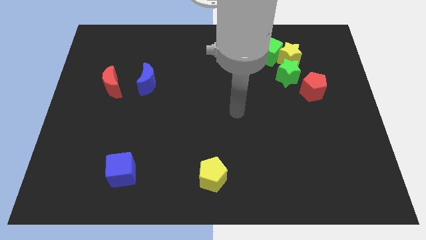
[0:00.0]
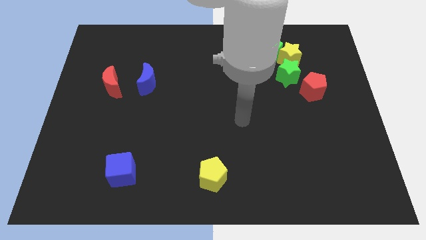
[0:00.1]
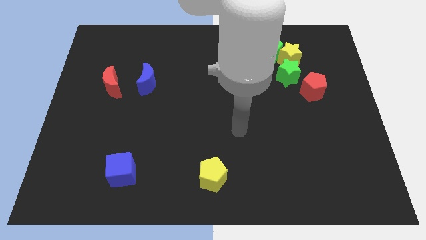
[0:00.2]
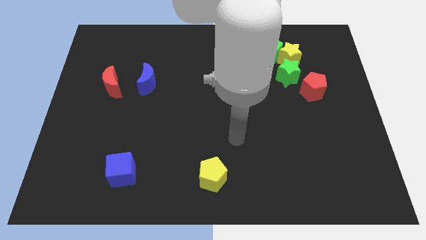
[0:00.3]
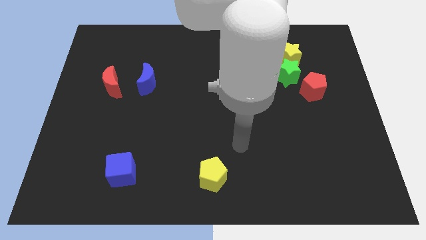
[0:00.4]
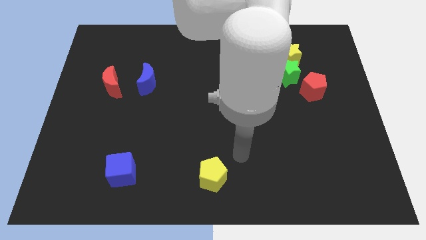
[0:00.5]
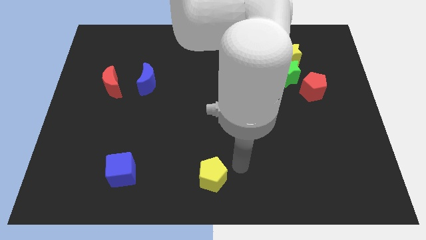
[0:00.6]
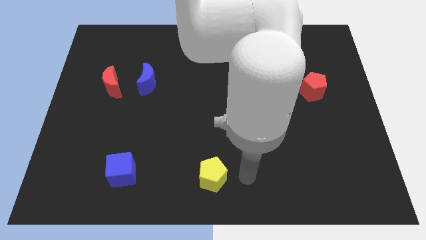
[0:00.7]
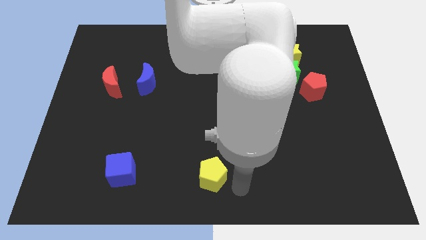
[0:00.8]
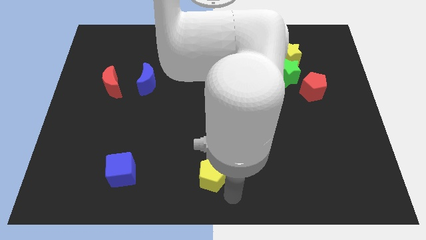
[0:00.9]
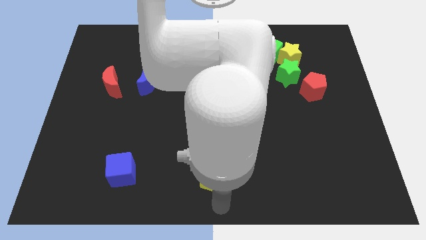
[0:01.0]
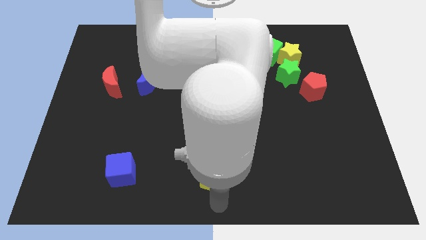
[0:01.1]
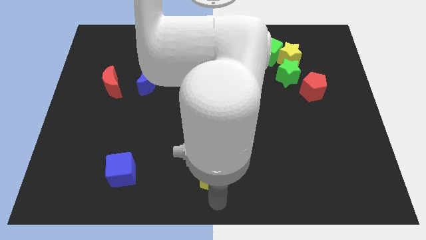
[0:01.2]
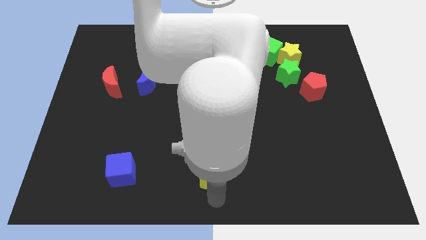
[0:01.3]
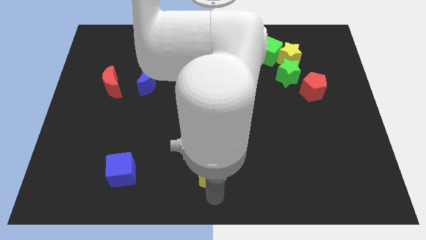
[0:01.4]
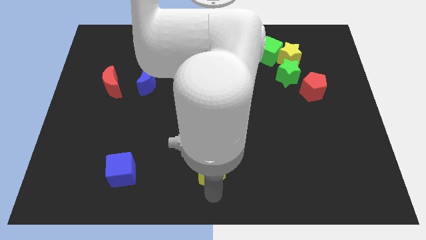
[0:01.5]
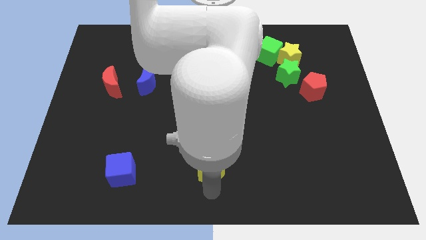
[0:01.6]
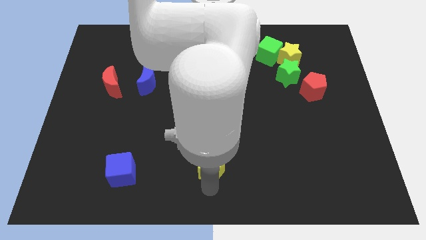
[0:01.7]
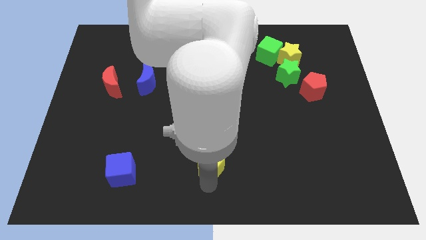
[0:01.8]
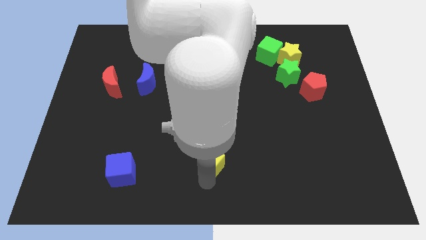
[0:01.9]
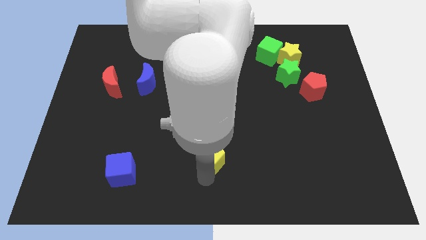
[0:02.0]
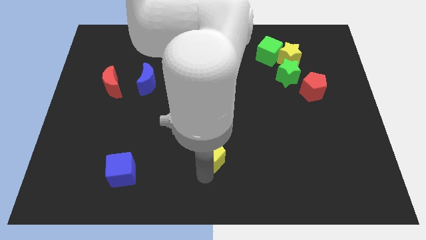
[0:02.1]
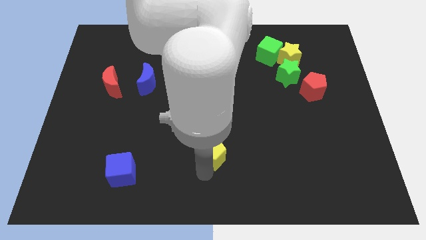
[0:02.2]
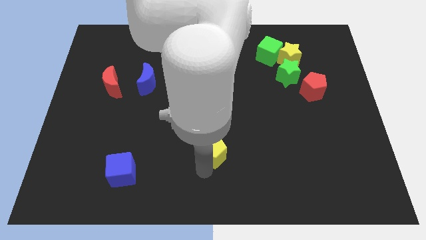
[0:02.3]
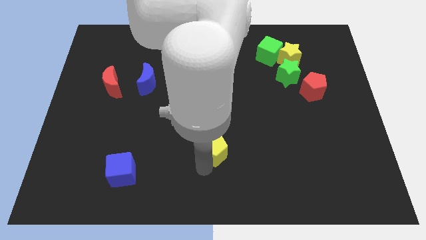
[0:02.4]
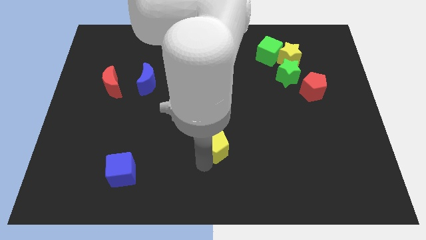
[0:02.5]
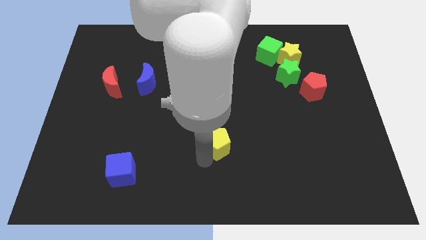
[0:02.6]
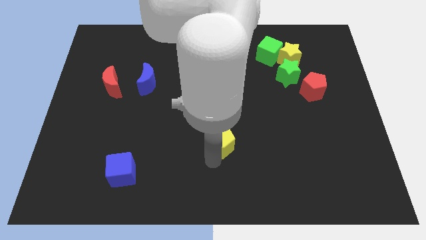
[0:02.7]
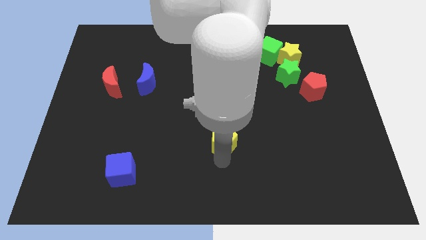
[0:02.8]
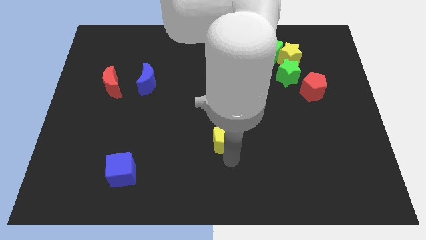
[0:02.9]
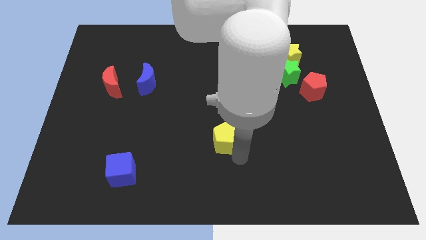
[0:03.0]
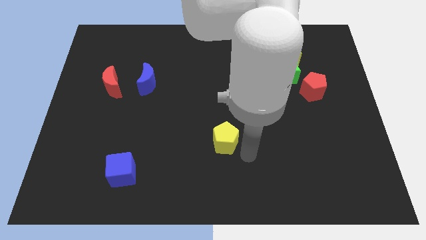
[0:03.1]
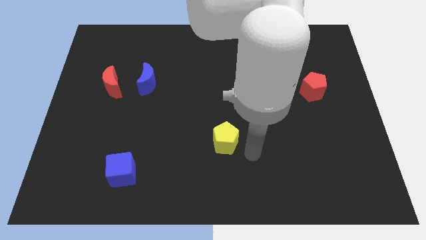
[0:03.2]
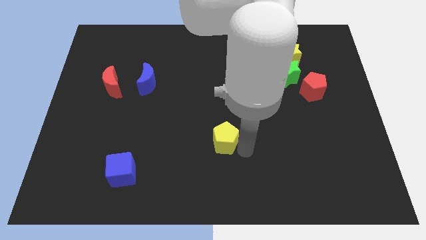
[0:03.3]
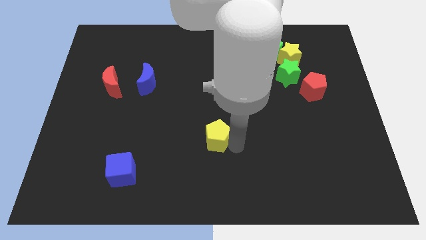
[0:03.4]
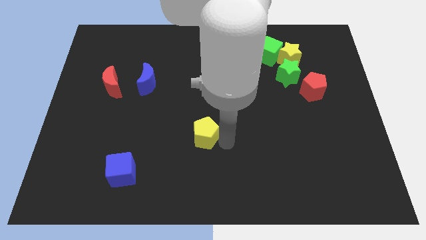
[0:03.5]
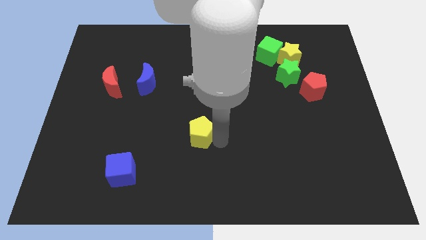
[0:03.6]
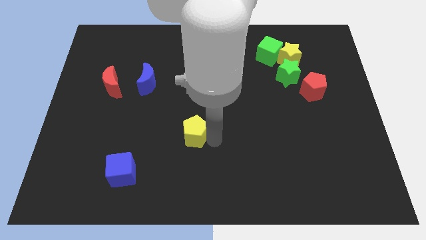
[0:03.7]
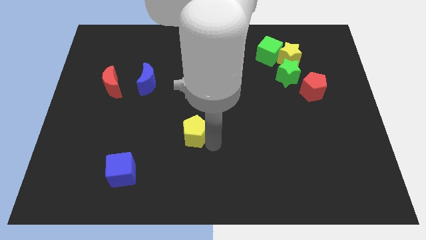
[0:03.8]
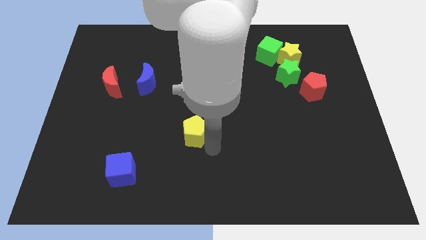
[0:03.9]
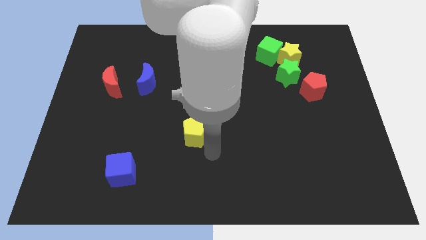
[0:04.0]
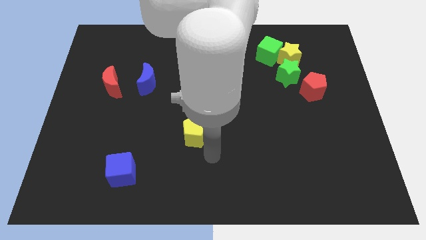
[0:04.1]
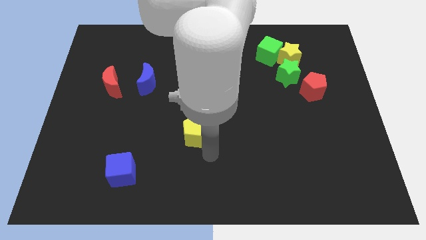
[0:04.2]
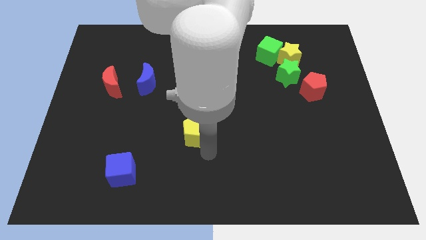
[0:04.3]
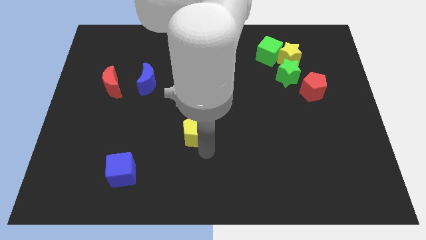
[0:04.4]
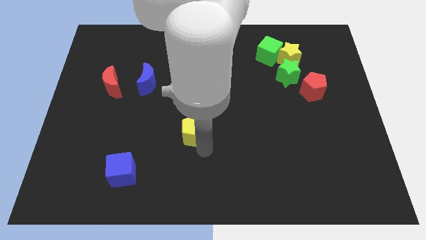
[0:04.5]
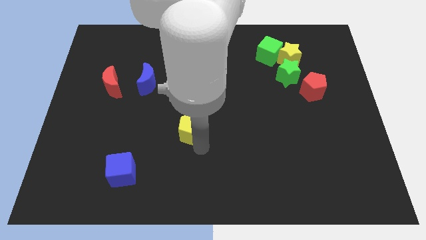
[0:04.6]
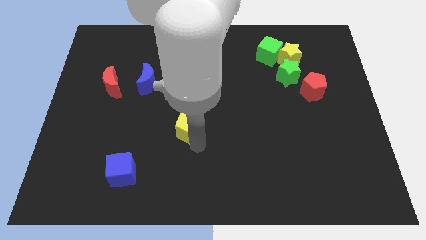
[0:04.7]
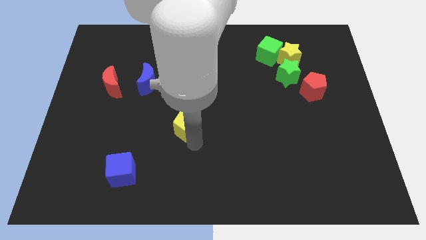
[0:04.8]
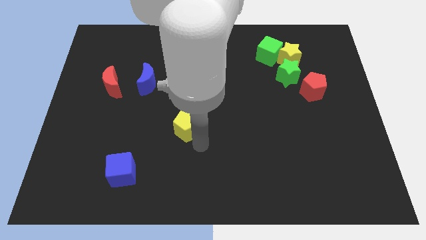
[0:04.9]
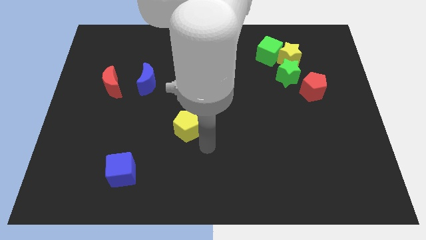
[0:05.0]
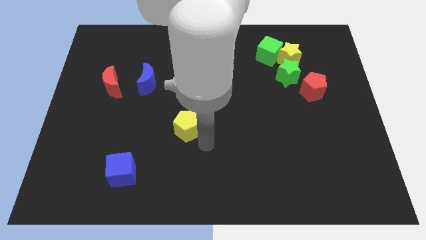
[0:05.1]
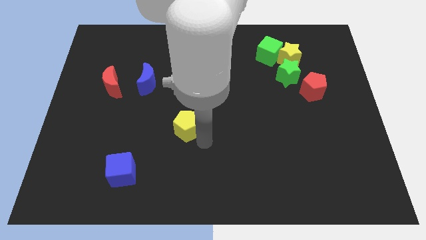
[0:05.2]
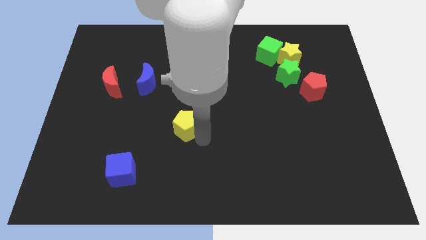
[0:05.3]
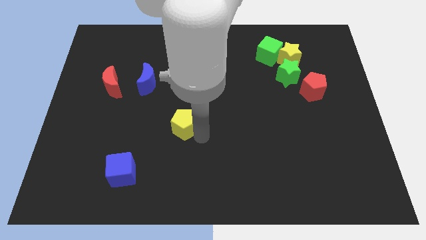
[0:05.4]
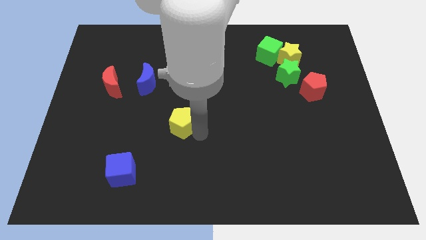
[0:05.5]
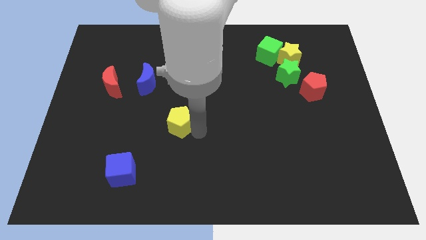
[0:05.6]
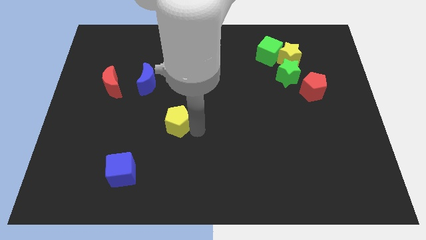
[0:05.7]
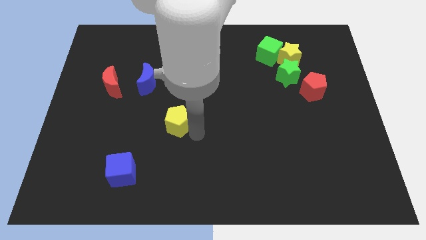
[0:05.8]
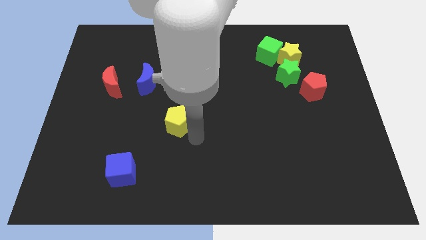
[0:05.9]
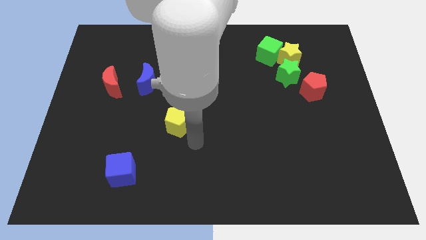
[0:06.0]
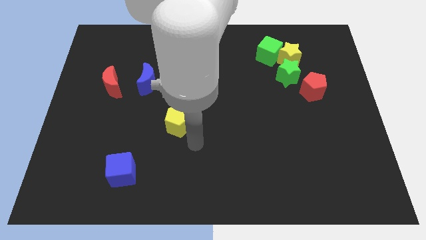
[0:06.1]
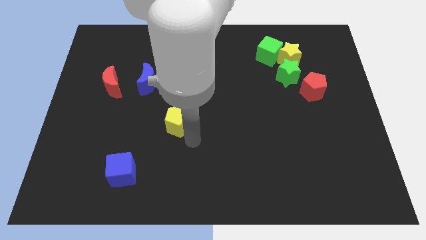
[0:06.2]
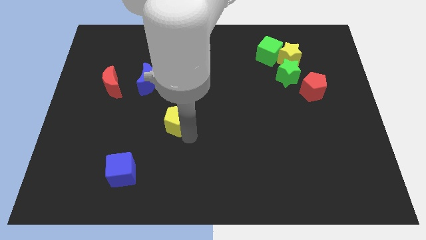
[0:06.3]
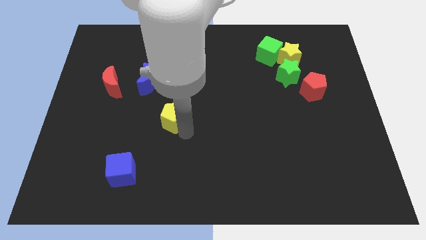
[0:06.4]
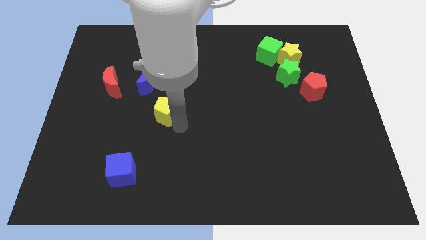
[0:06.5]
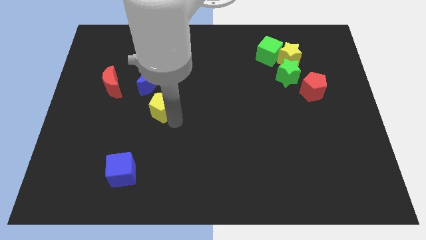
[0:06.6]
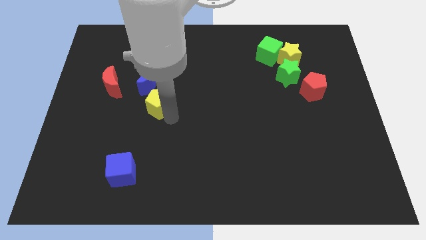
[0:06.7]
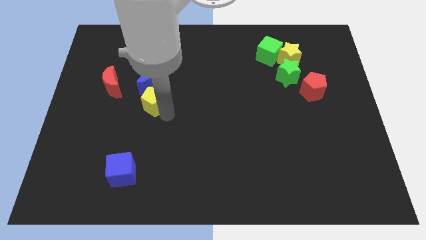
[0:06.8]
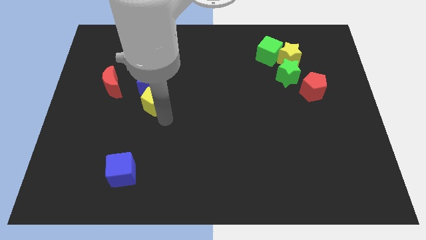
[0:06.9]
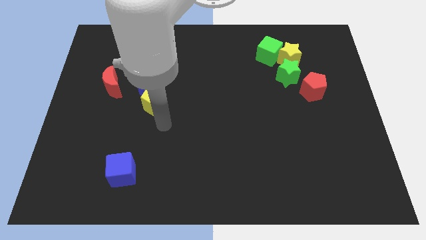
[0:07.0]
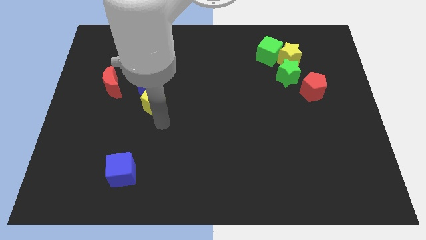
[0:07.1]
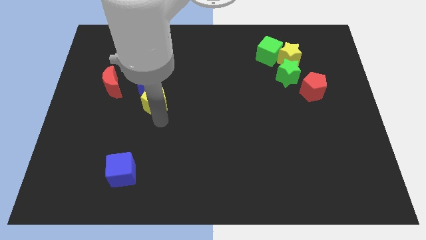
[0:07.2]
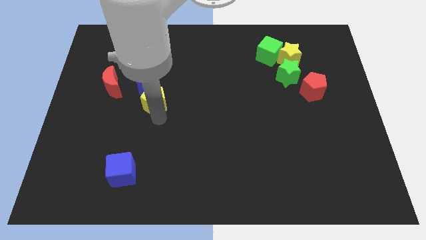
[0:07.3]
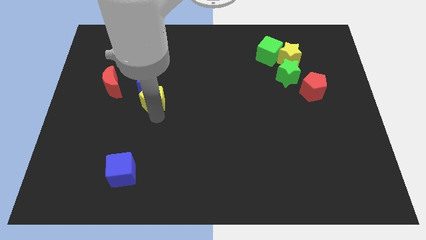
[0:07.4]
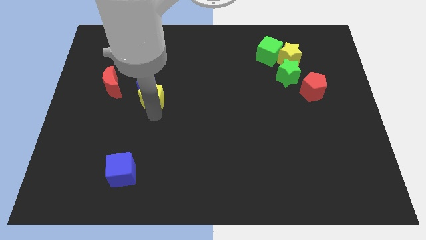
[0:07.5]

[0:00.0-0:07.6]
slide the yellow pentagon close to the blue moon

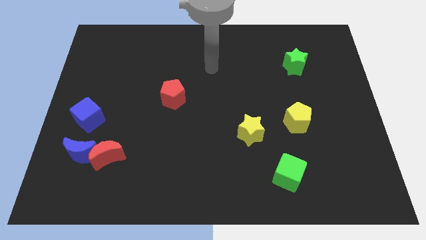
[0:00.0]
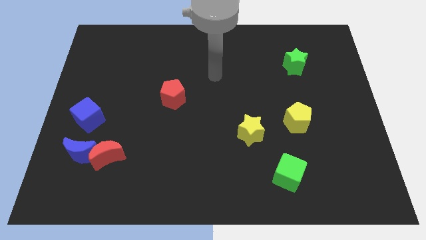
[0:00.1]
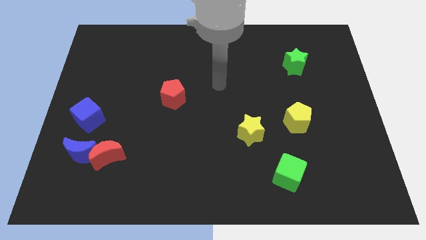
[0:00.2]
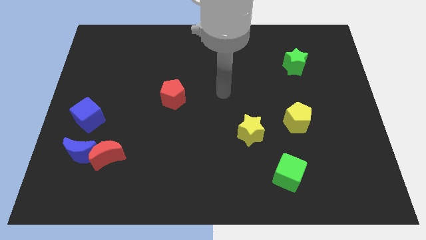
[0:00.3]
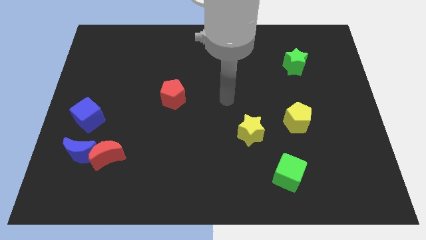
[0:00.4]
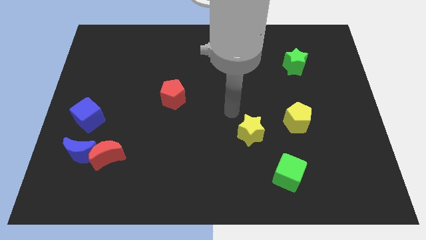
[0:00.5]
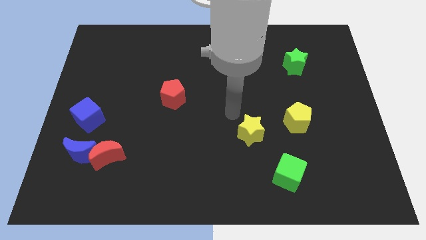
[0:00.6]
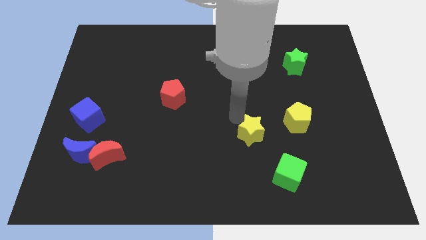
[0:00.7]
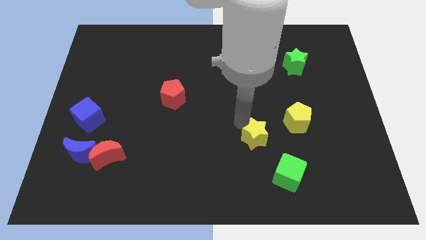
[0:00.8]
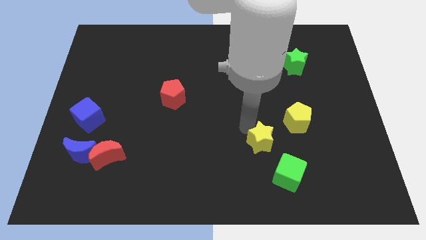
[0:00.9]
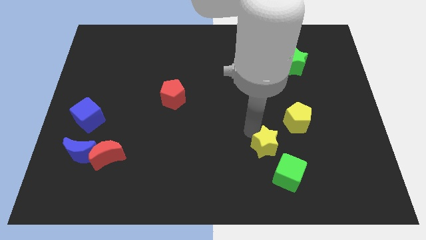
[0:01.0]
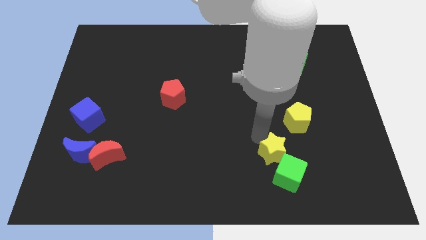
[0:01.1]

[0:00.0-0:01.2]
put the yellow star next to the green cube
